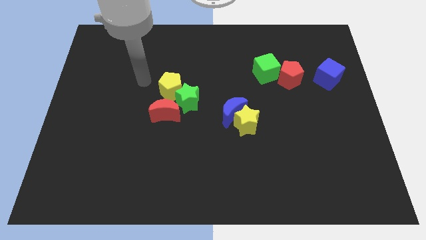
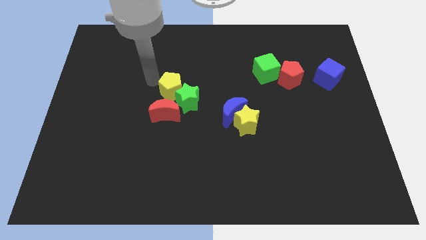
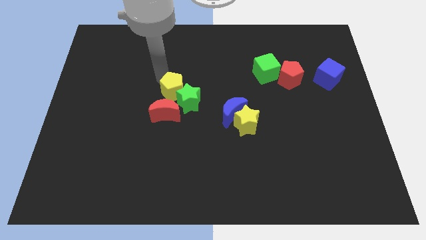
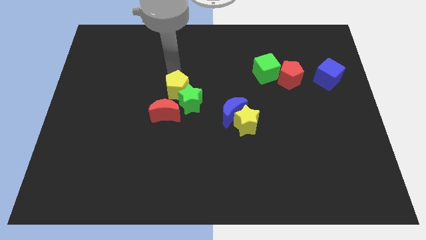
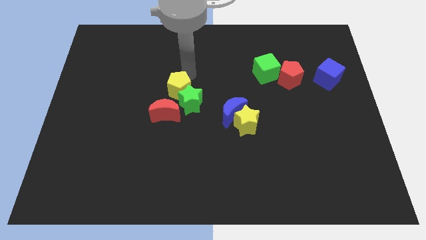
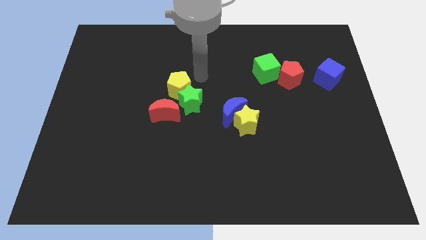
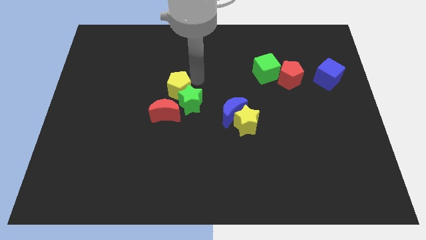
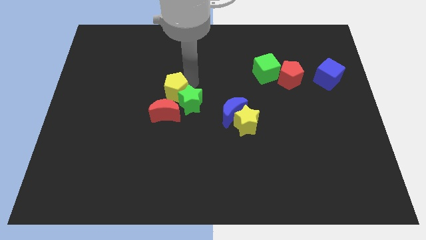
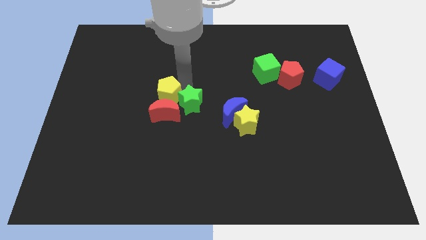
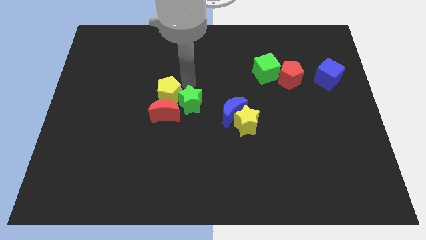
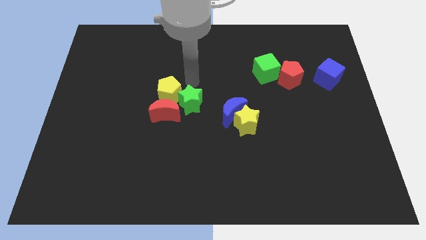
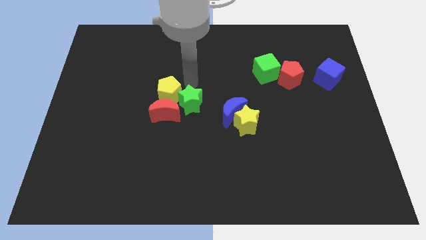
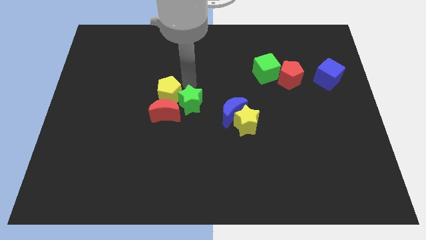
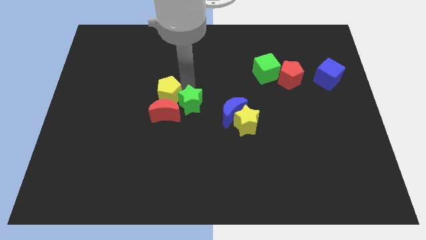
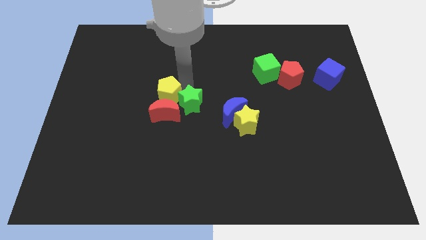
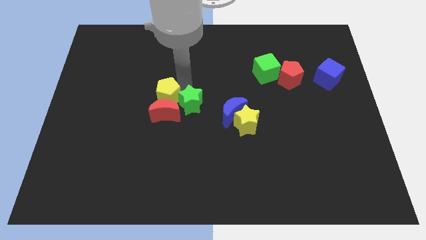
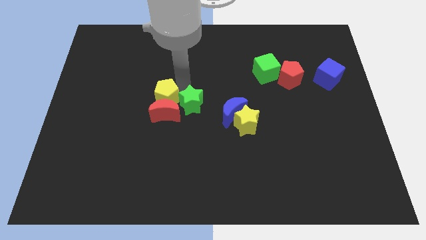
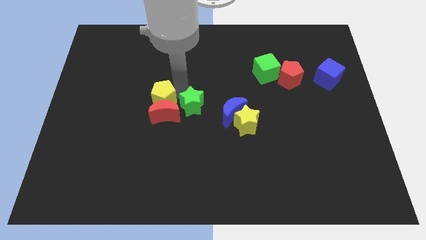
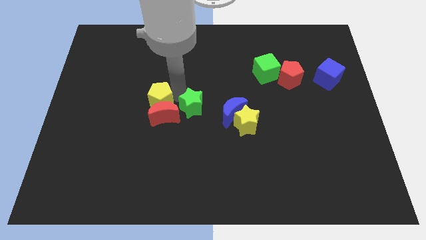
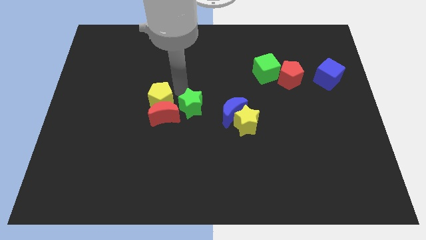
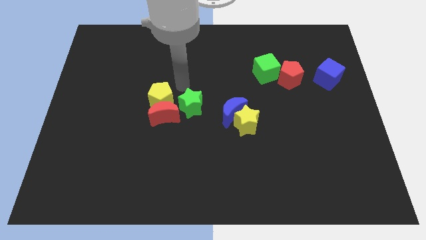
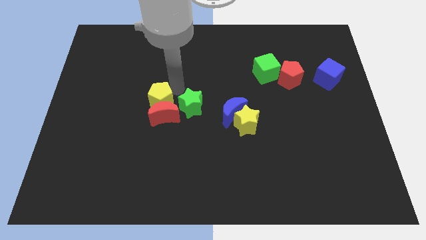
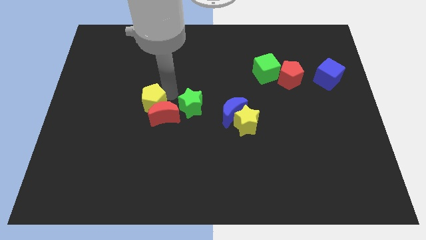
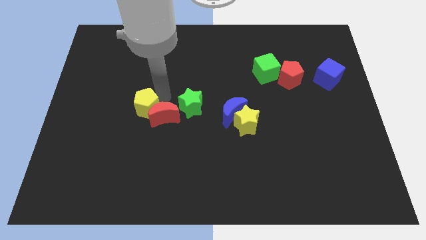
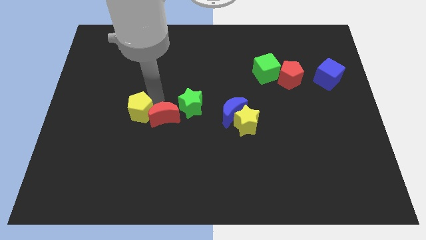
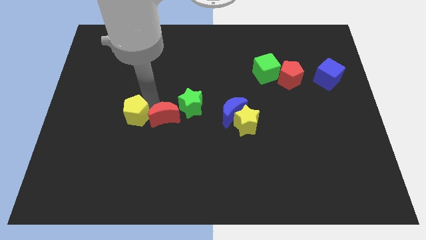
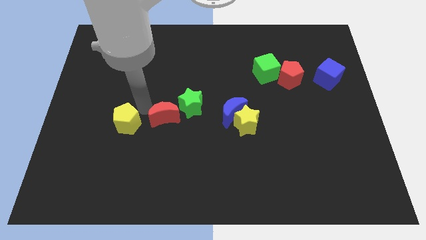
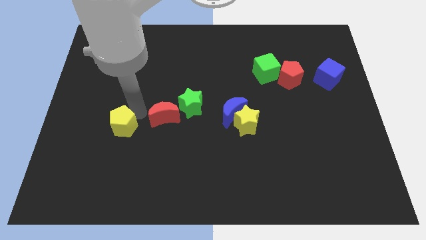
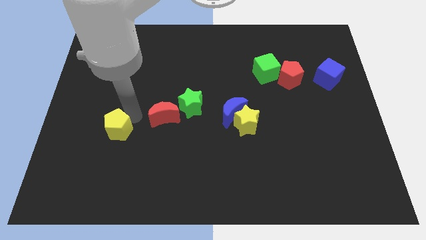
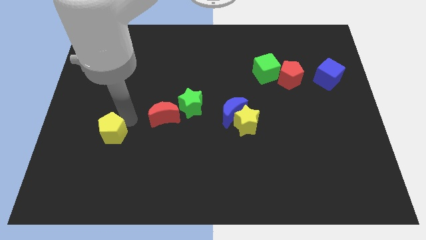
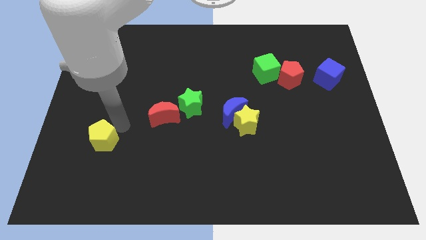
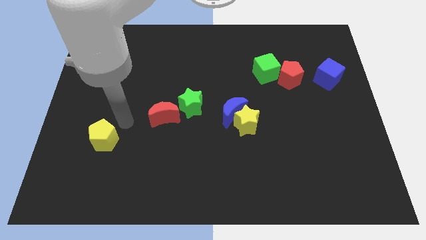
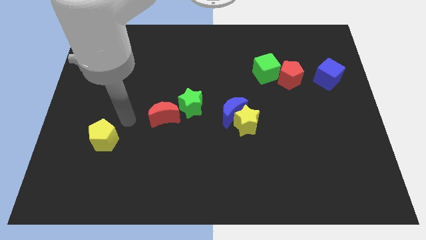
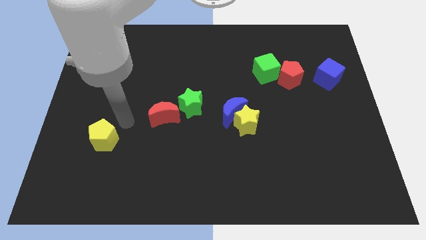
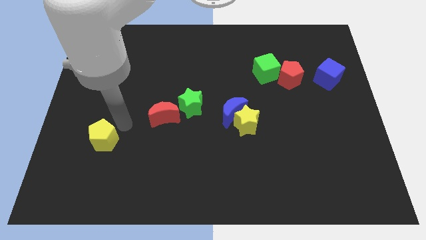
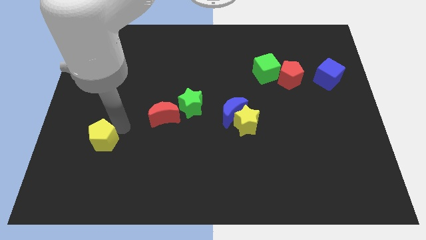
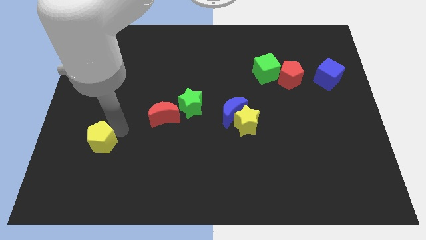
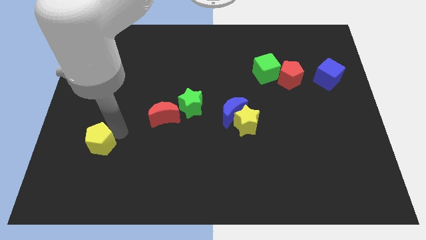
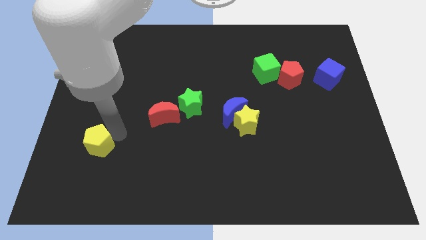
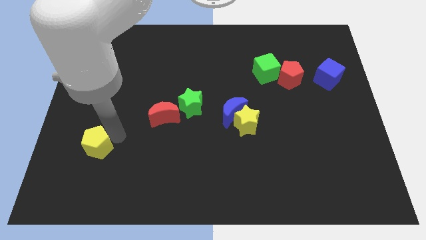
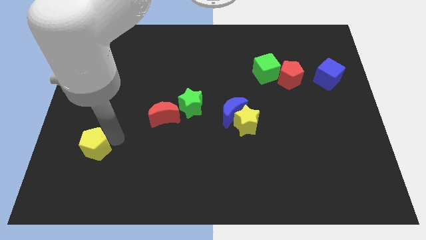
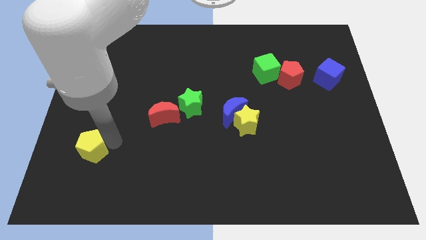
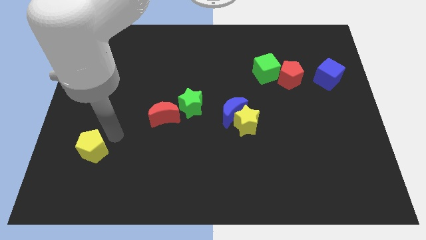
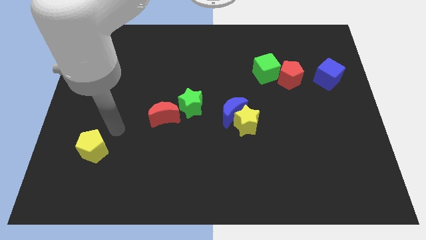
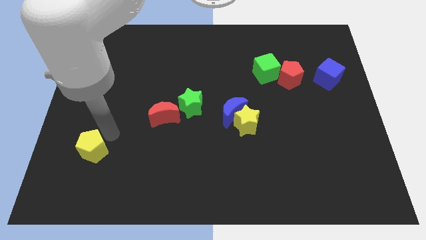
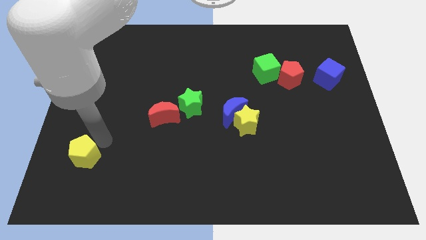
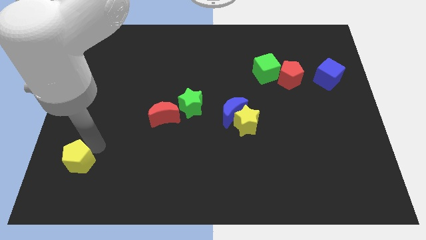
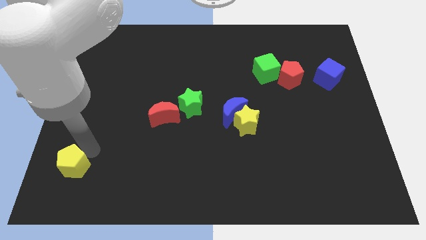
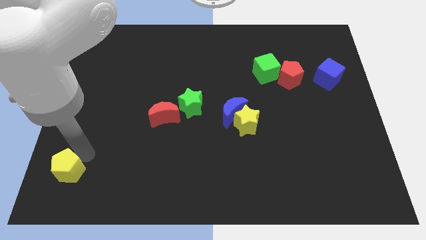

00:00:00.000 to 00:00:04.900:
slide the yellow pentagon to the lower left corner

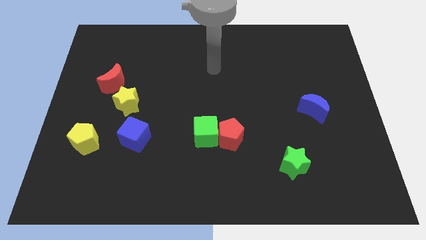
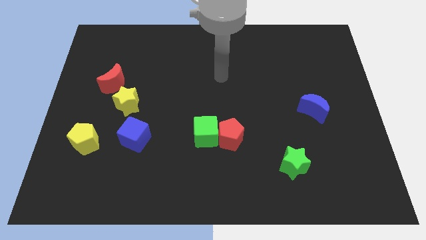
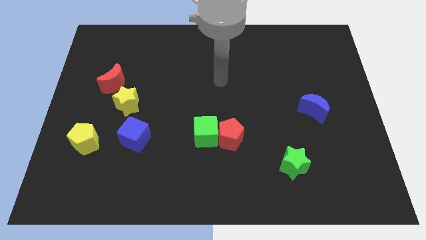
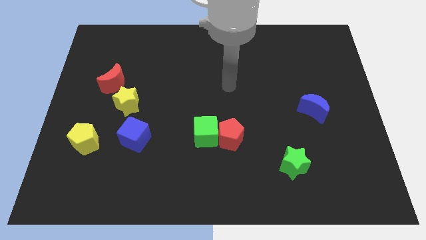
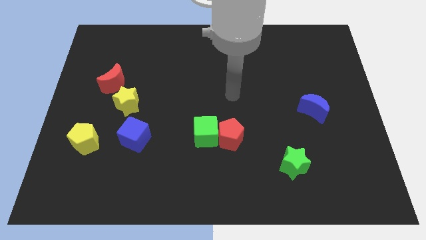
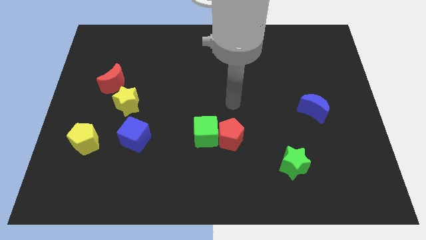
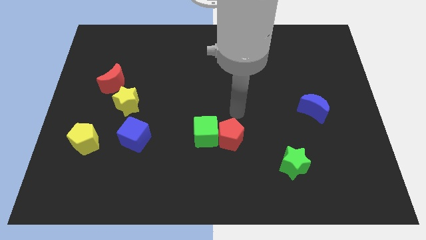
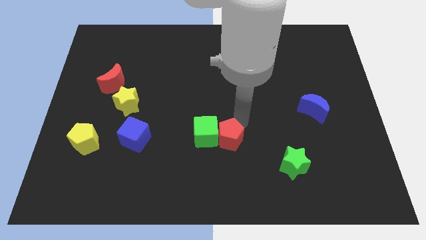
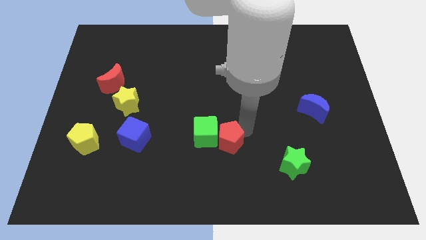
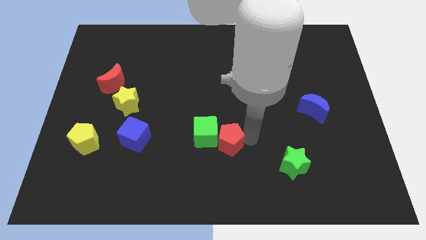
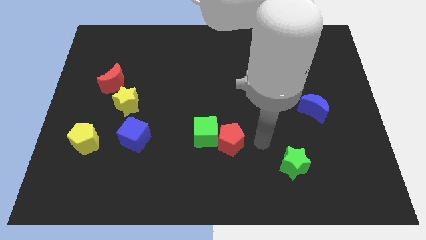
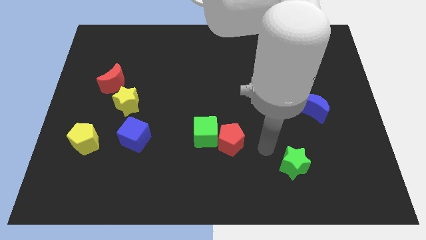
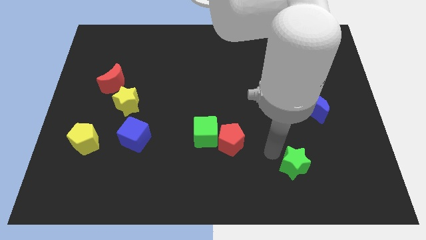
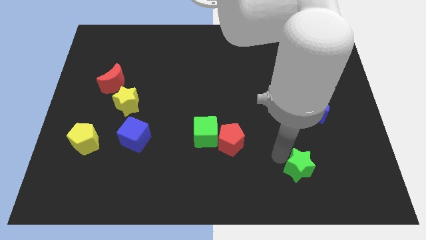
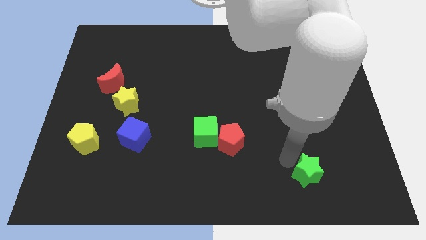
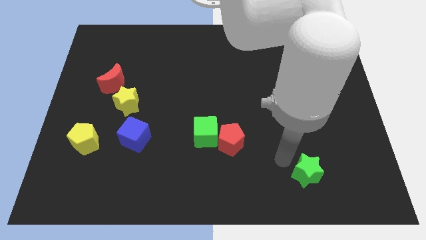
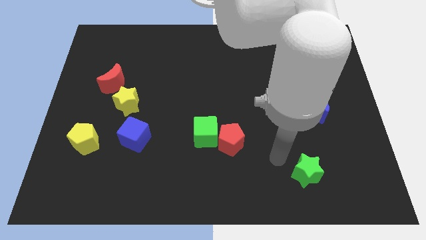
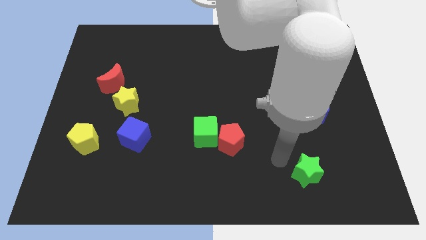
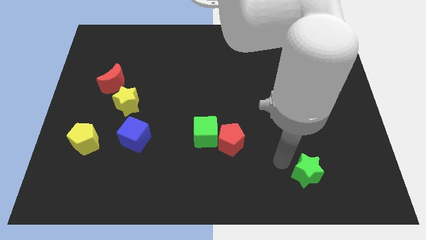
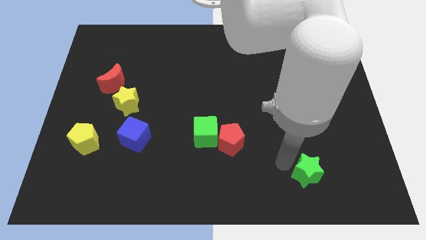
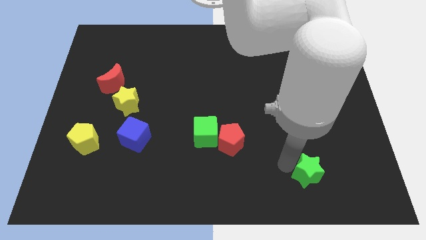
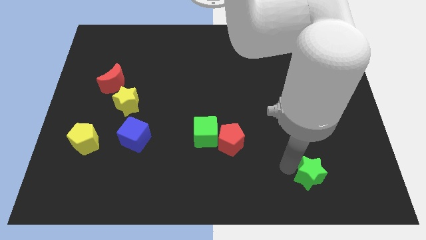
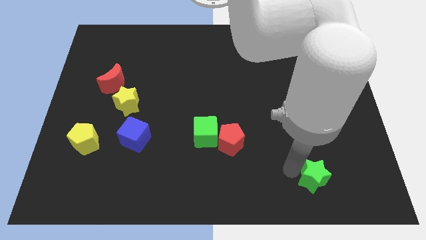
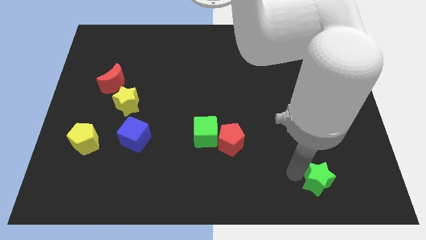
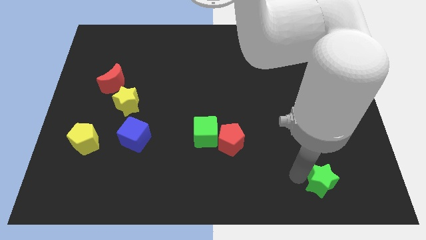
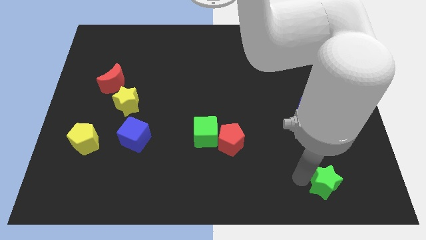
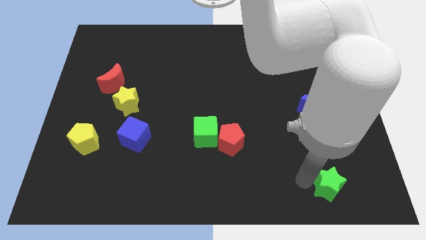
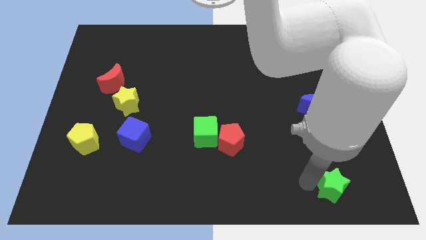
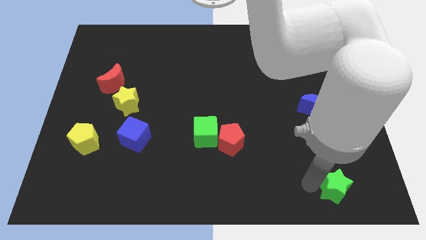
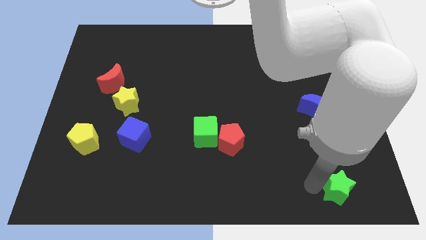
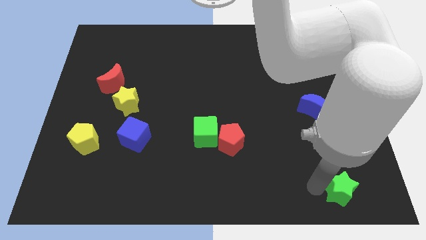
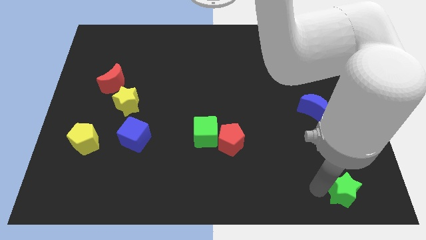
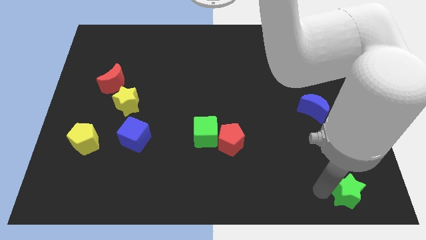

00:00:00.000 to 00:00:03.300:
put the green star to the bottom right
